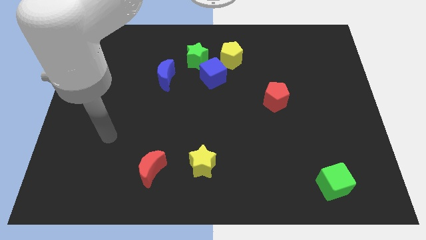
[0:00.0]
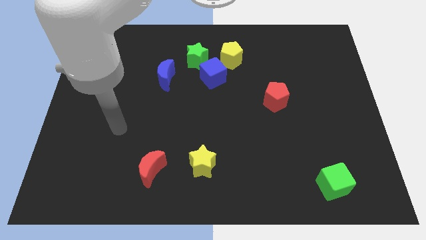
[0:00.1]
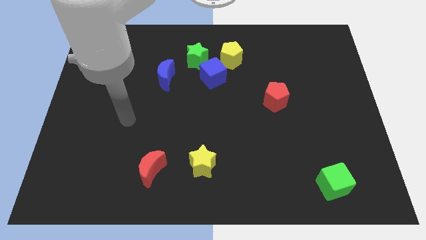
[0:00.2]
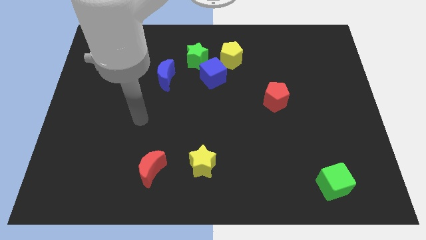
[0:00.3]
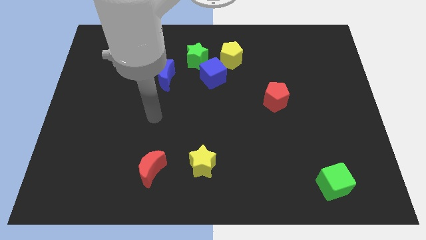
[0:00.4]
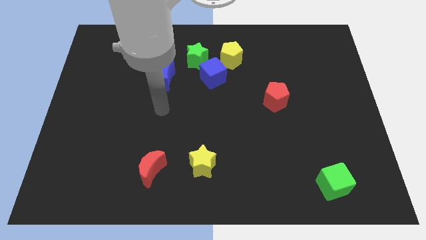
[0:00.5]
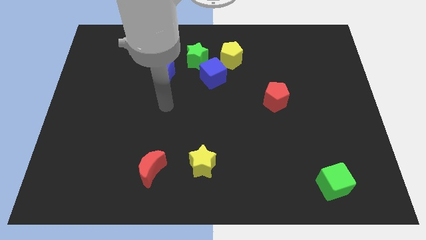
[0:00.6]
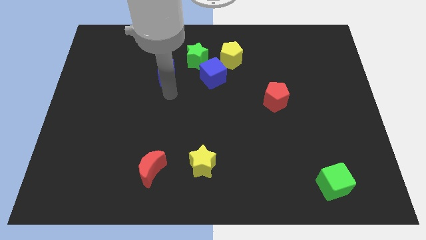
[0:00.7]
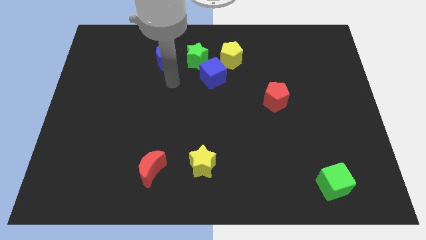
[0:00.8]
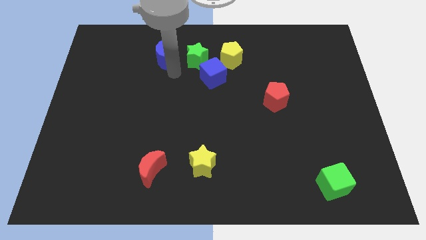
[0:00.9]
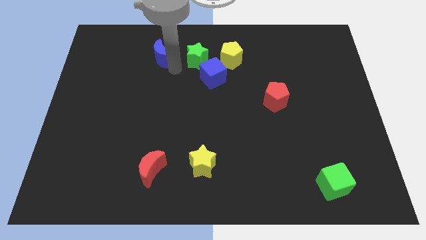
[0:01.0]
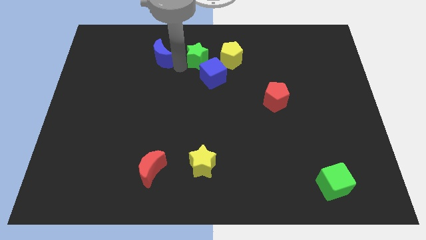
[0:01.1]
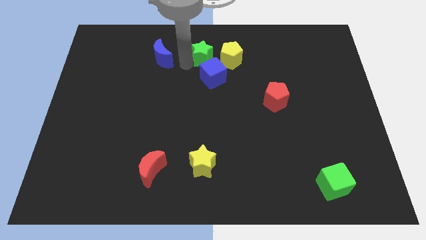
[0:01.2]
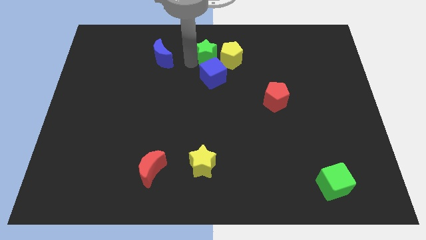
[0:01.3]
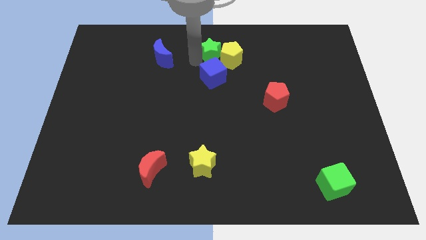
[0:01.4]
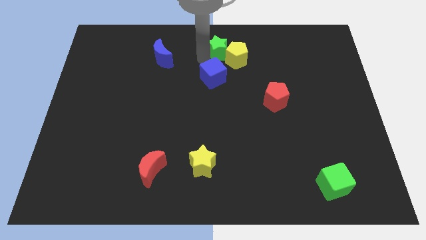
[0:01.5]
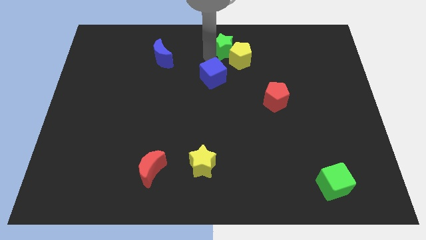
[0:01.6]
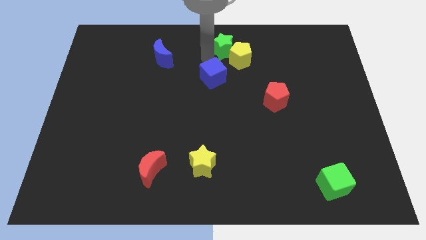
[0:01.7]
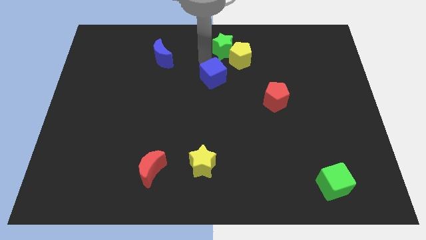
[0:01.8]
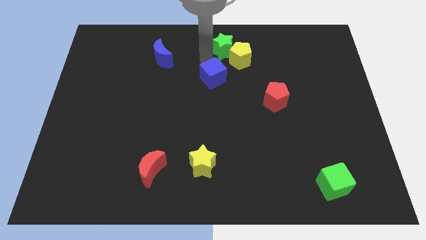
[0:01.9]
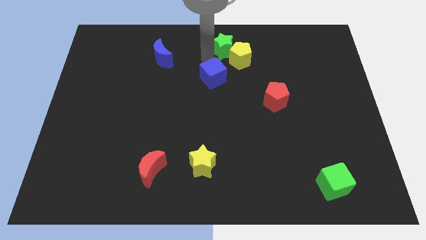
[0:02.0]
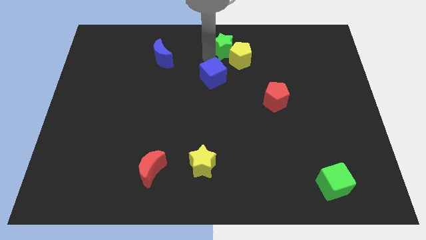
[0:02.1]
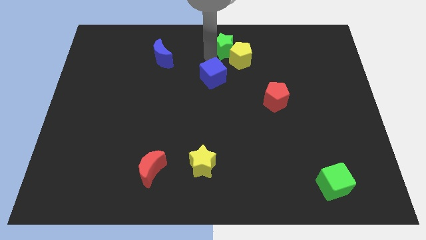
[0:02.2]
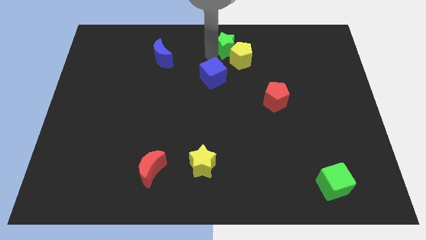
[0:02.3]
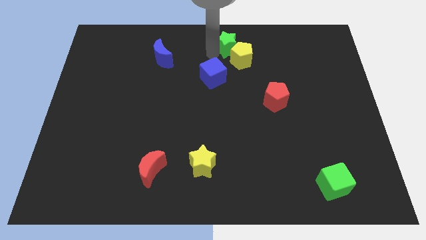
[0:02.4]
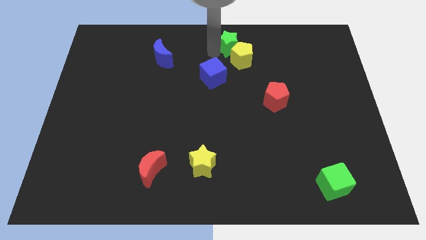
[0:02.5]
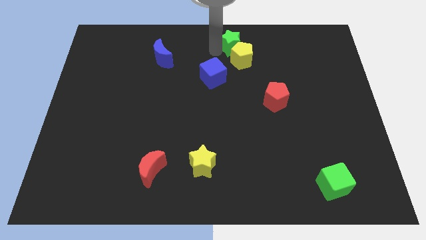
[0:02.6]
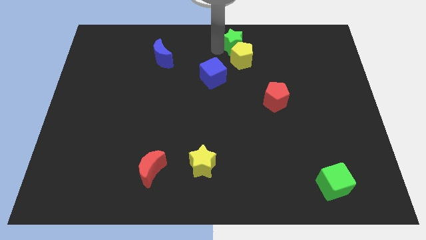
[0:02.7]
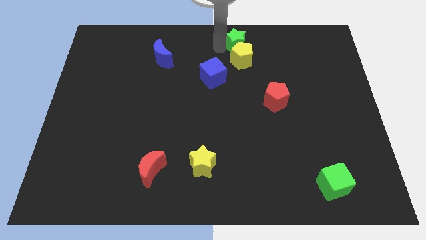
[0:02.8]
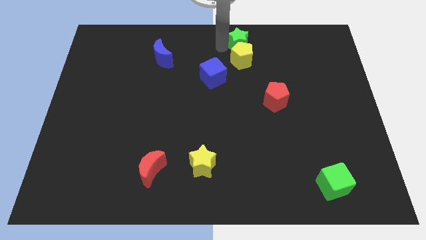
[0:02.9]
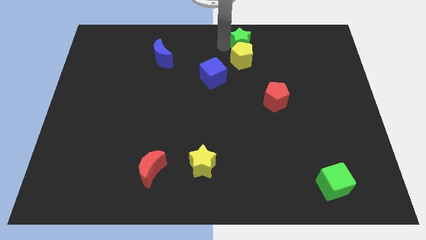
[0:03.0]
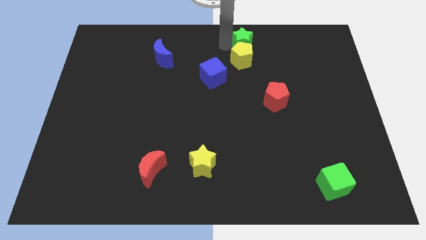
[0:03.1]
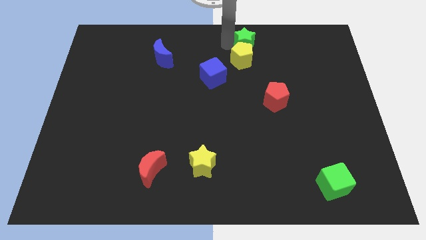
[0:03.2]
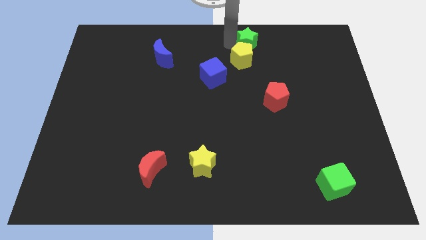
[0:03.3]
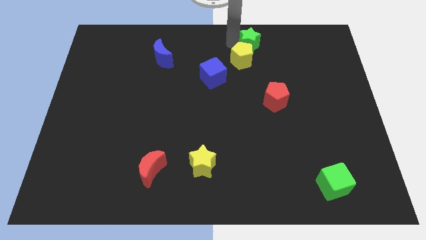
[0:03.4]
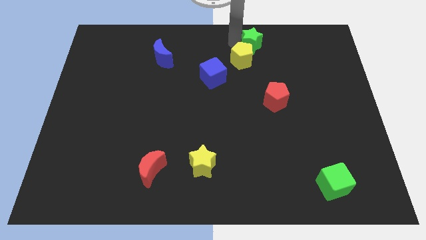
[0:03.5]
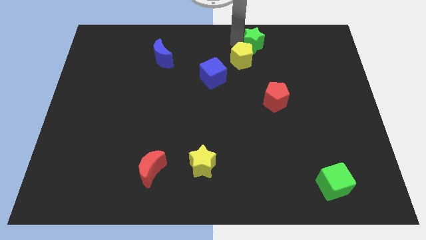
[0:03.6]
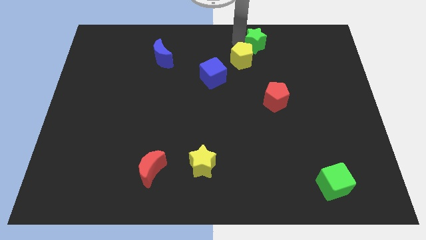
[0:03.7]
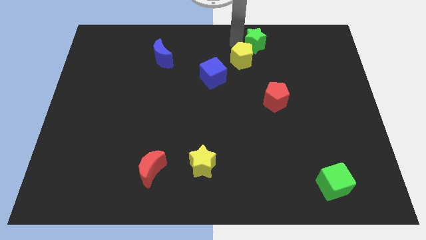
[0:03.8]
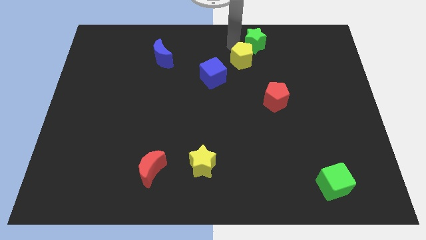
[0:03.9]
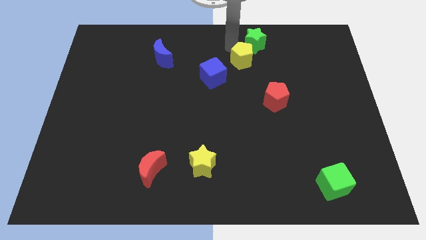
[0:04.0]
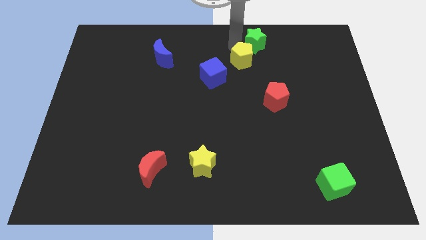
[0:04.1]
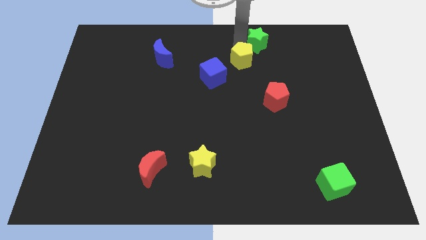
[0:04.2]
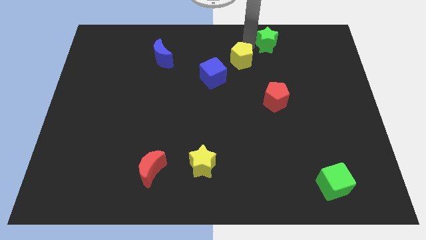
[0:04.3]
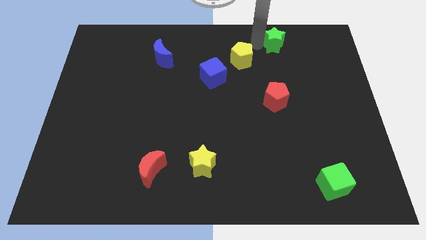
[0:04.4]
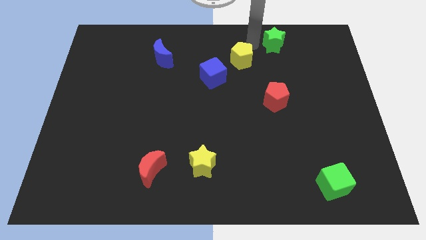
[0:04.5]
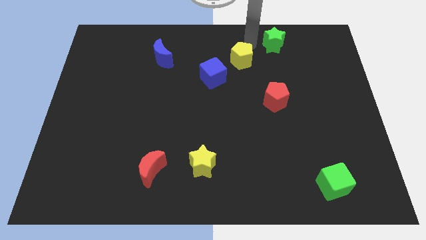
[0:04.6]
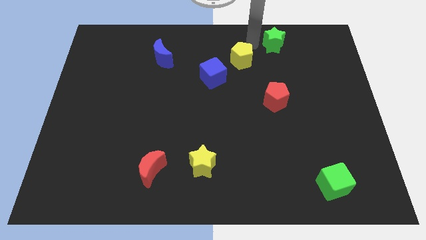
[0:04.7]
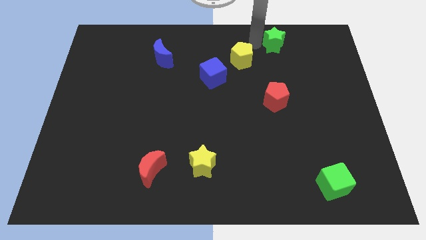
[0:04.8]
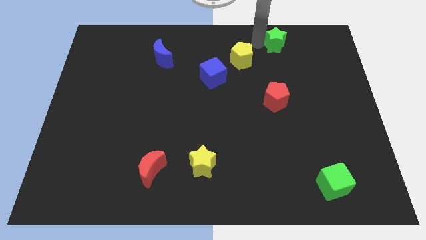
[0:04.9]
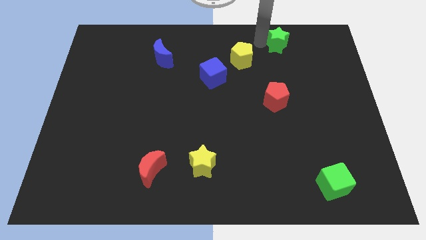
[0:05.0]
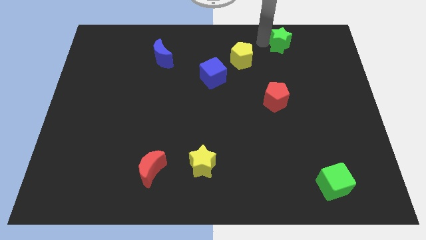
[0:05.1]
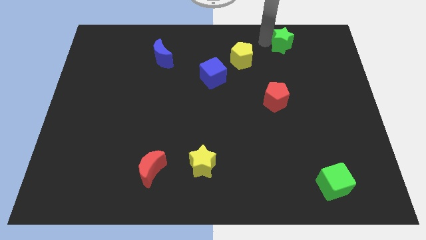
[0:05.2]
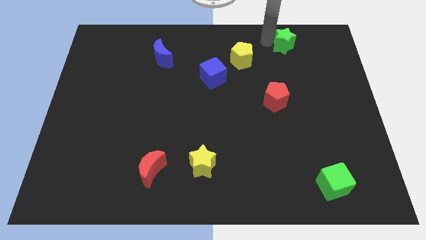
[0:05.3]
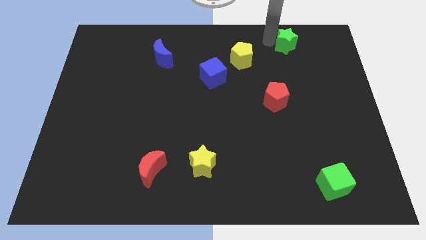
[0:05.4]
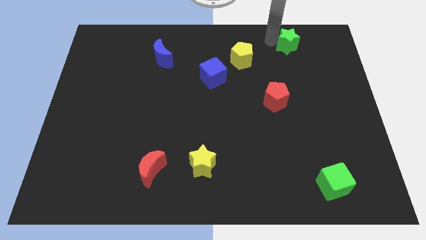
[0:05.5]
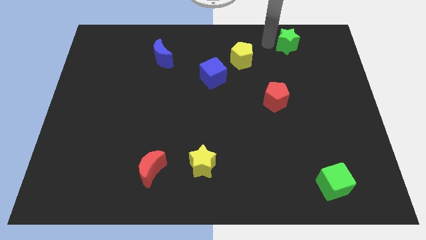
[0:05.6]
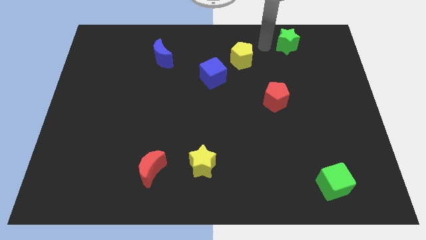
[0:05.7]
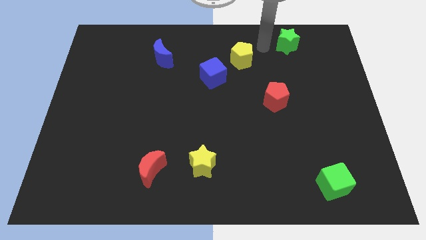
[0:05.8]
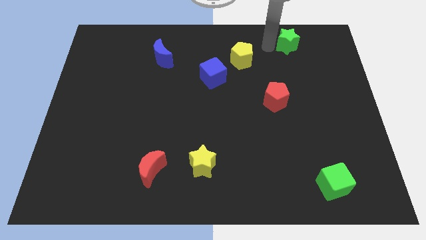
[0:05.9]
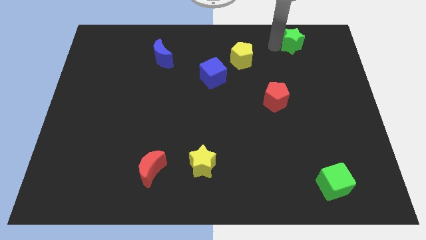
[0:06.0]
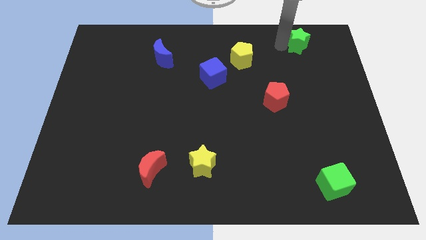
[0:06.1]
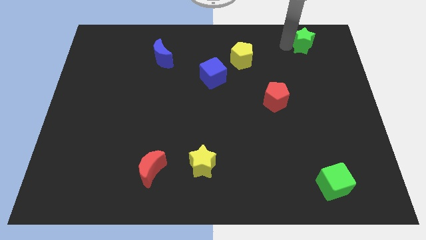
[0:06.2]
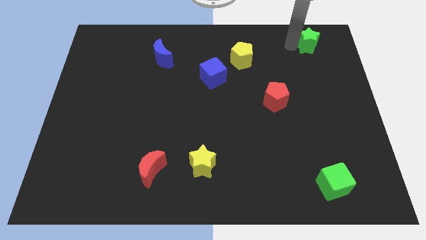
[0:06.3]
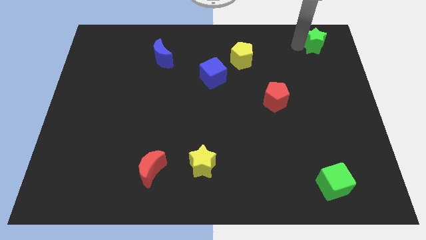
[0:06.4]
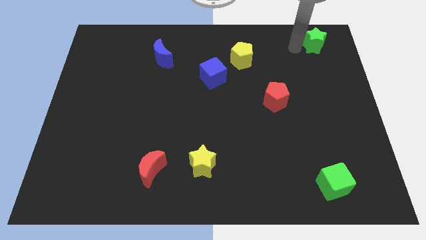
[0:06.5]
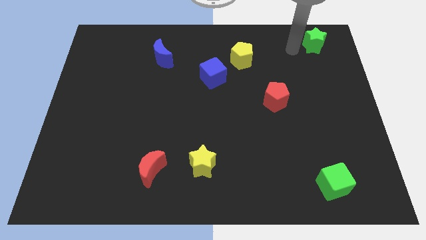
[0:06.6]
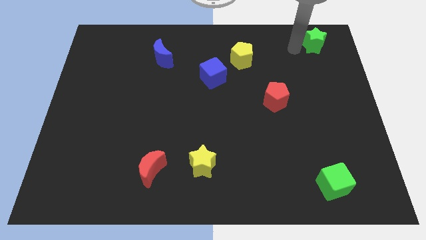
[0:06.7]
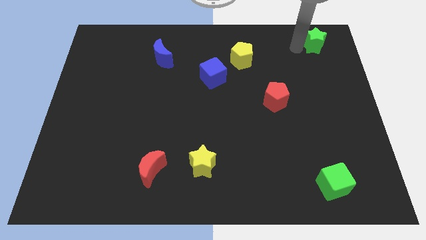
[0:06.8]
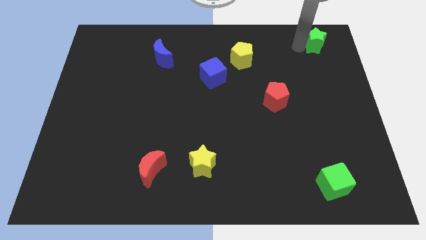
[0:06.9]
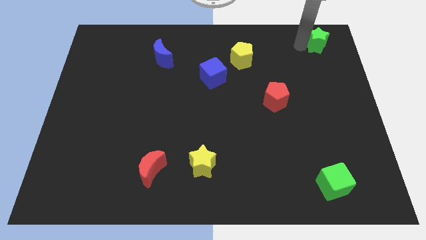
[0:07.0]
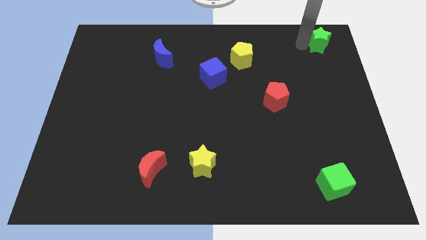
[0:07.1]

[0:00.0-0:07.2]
push the green star to the top right corner

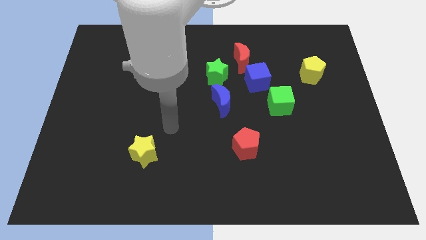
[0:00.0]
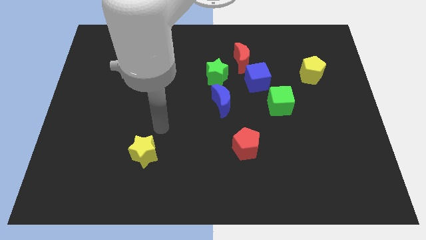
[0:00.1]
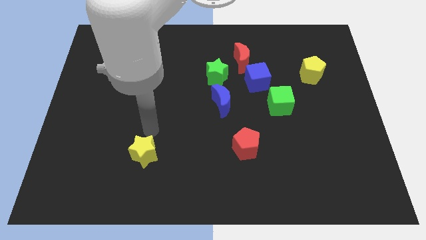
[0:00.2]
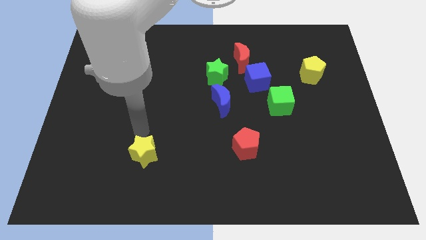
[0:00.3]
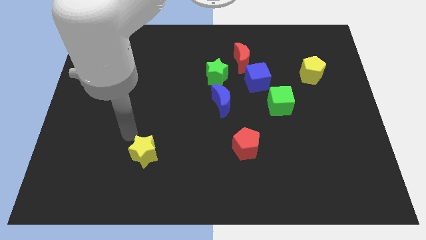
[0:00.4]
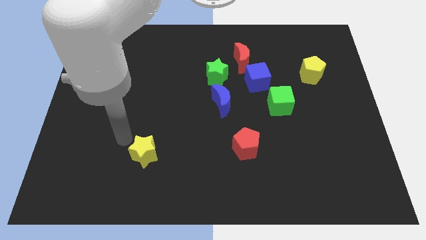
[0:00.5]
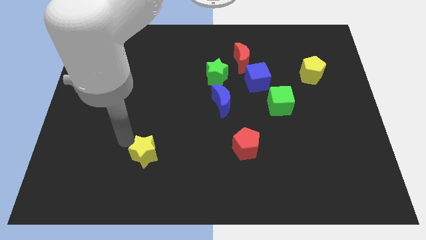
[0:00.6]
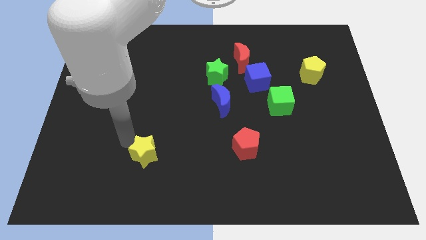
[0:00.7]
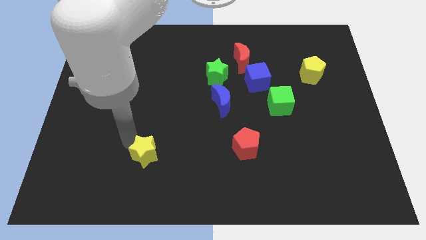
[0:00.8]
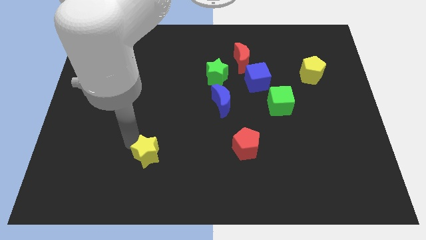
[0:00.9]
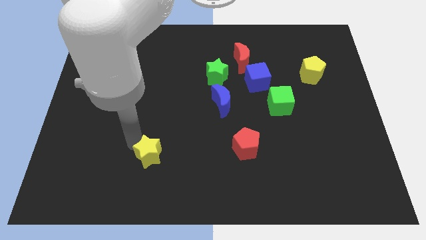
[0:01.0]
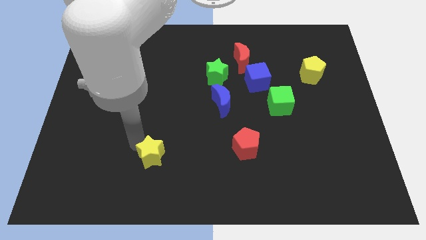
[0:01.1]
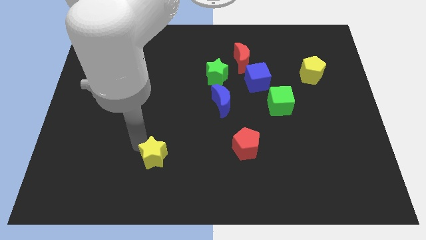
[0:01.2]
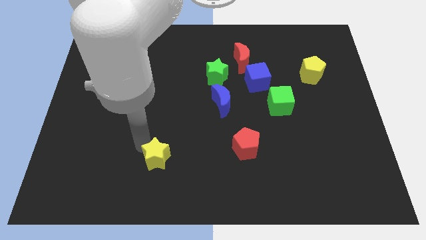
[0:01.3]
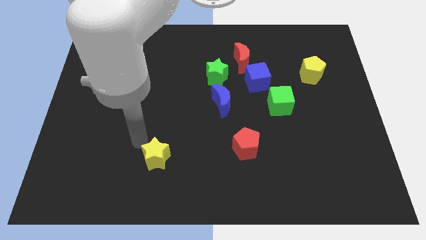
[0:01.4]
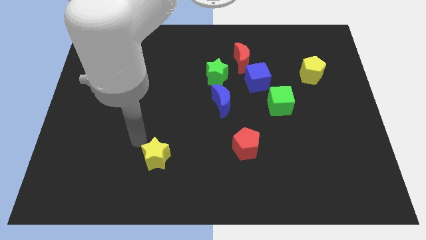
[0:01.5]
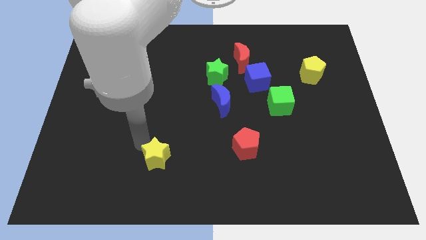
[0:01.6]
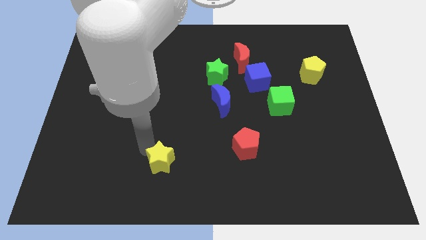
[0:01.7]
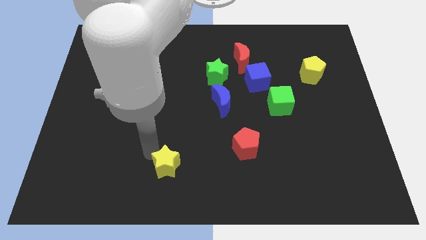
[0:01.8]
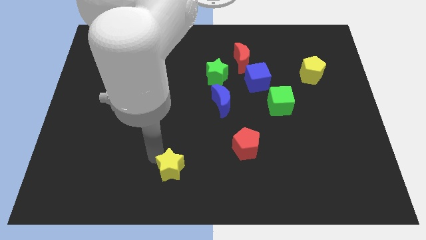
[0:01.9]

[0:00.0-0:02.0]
slide the yellow star to the bottom
